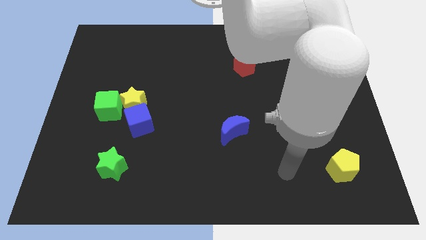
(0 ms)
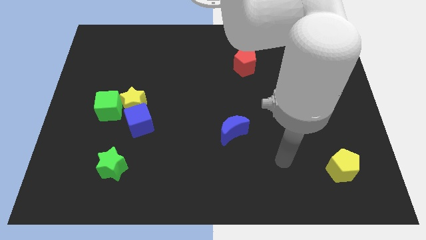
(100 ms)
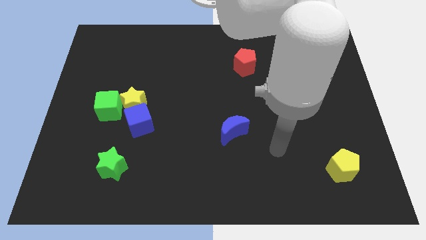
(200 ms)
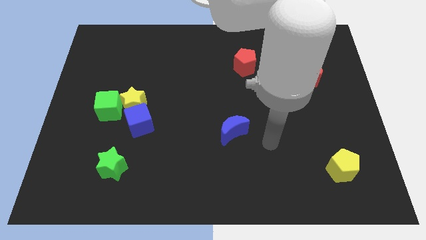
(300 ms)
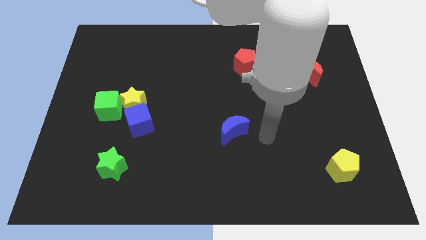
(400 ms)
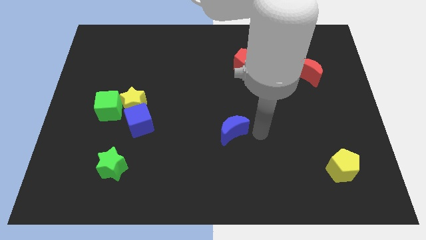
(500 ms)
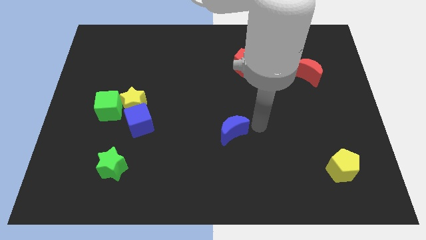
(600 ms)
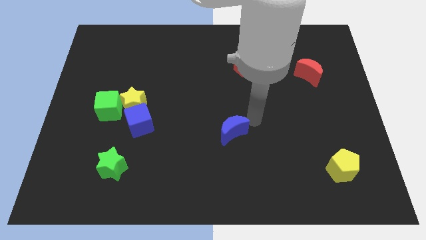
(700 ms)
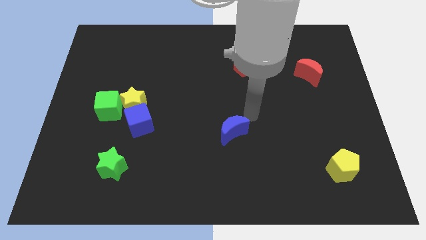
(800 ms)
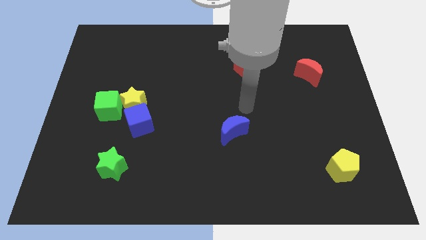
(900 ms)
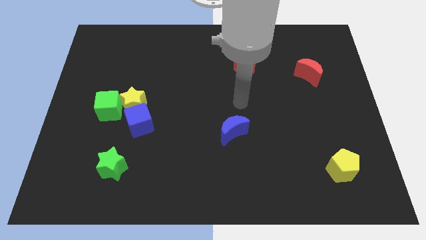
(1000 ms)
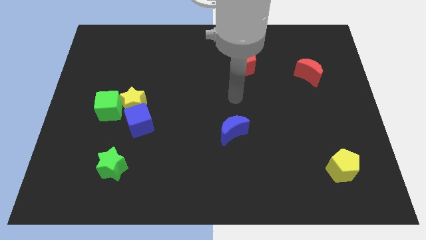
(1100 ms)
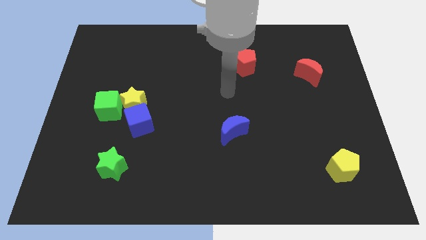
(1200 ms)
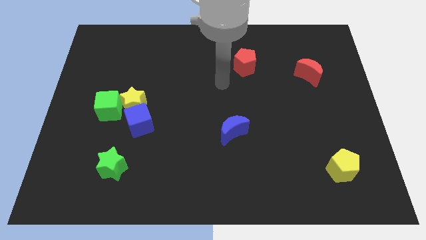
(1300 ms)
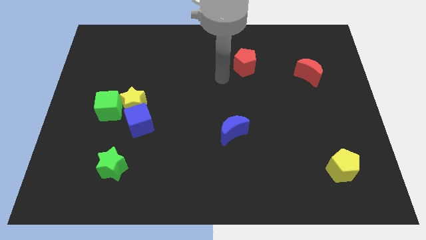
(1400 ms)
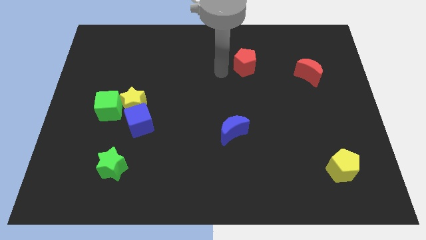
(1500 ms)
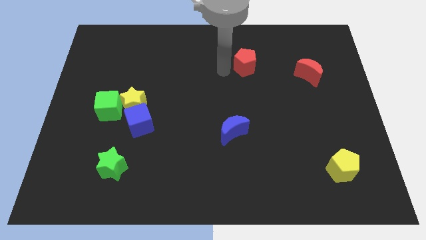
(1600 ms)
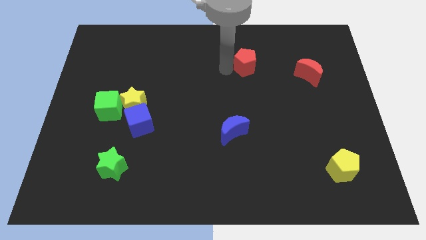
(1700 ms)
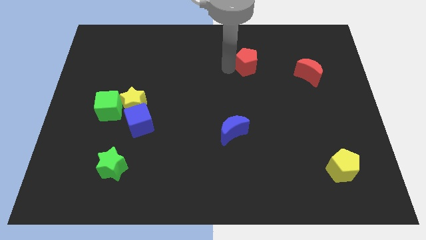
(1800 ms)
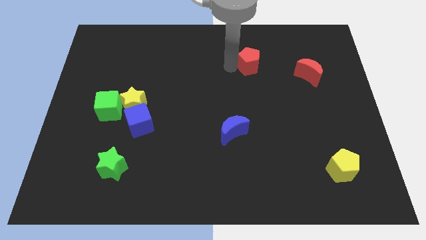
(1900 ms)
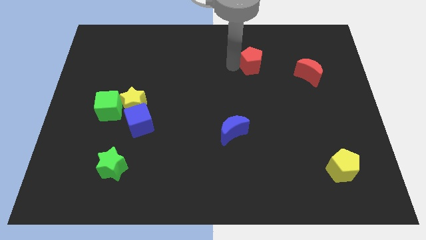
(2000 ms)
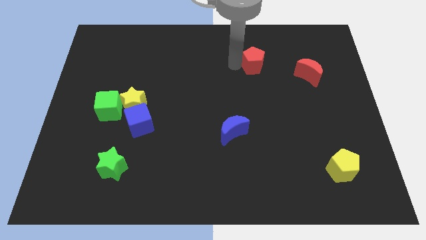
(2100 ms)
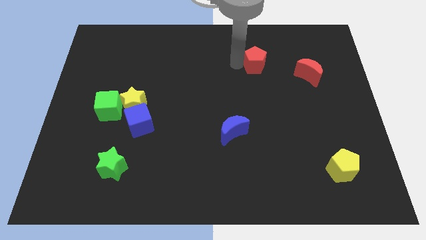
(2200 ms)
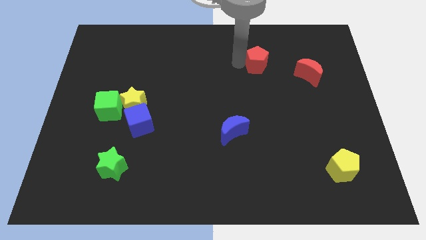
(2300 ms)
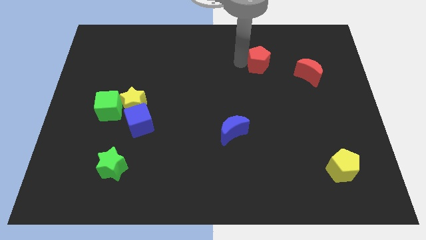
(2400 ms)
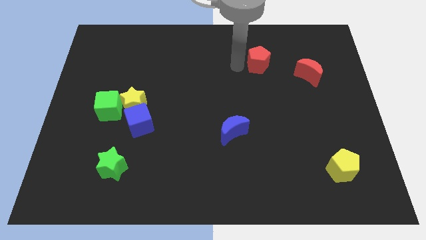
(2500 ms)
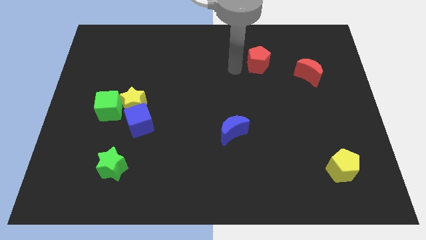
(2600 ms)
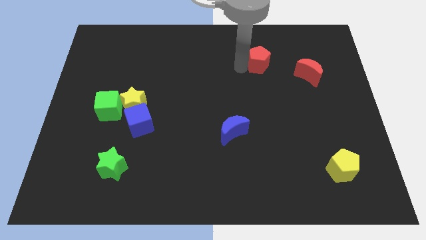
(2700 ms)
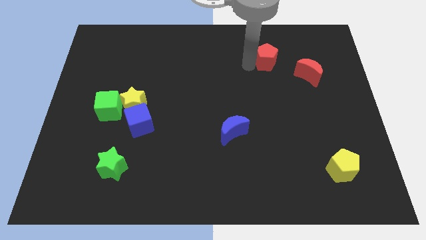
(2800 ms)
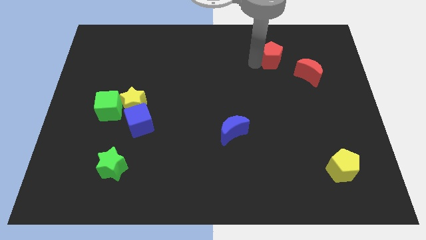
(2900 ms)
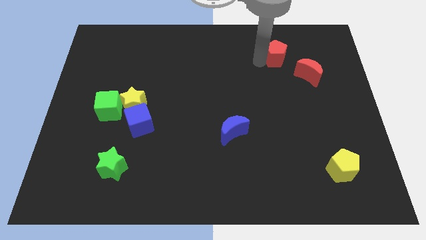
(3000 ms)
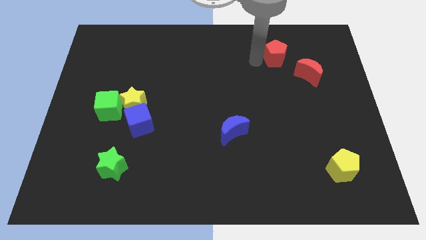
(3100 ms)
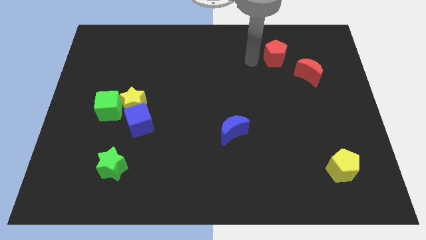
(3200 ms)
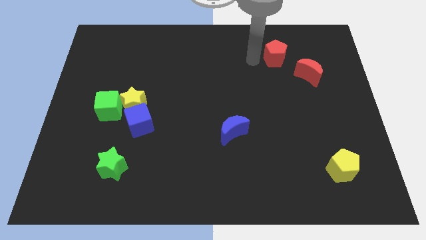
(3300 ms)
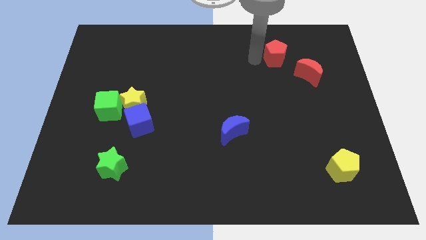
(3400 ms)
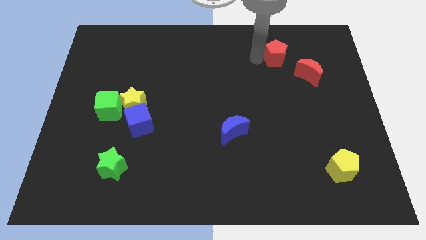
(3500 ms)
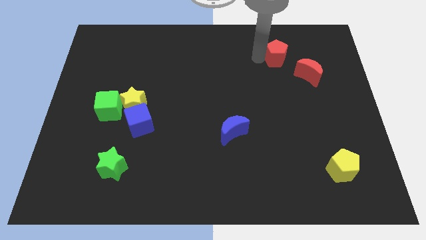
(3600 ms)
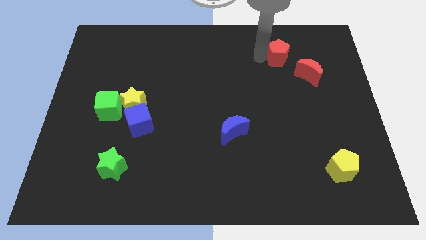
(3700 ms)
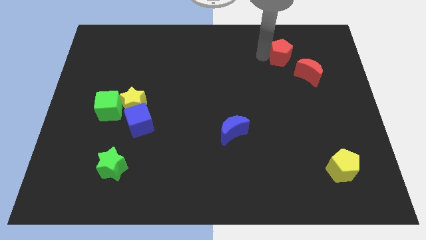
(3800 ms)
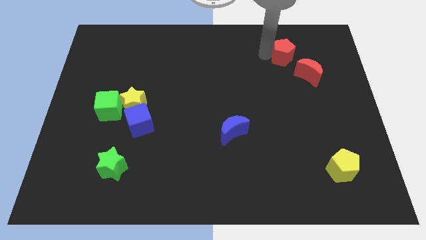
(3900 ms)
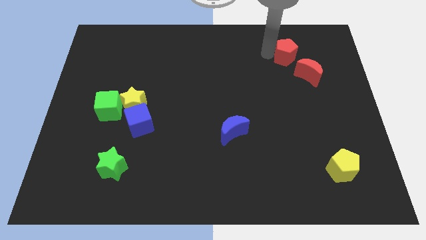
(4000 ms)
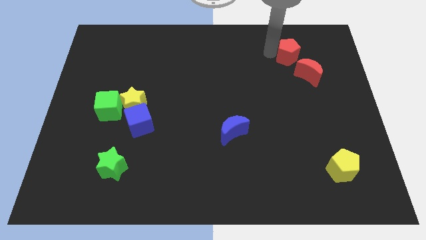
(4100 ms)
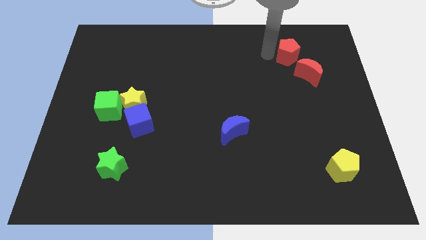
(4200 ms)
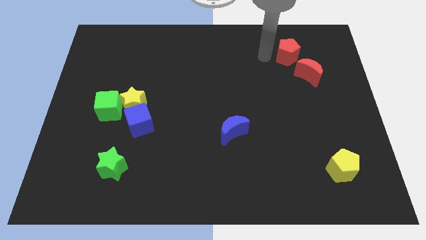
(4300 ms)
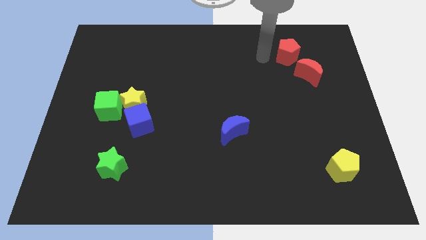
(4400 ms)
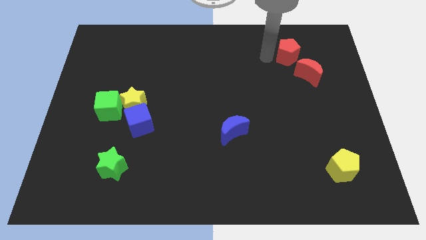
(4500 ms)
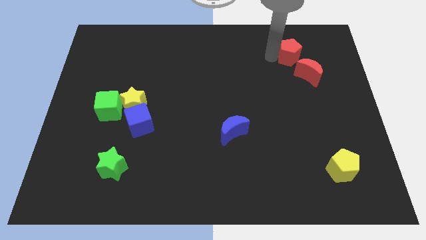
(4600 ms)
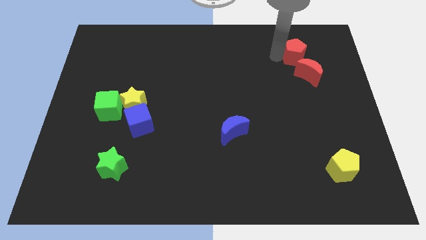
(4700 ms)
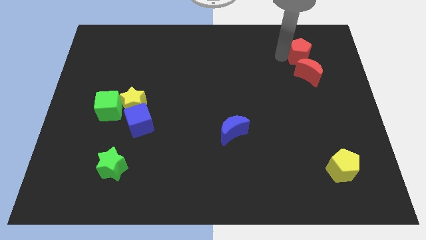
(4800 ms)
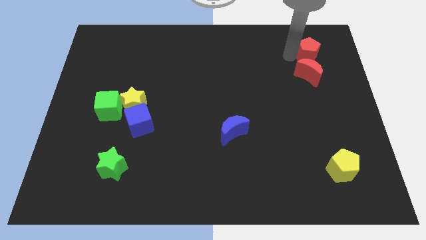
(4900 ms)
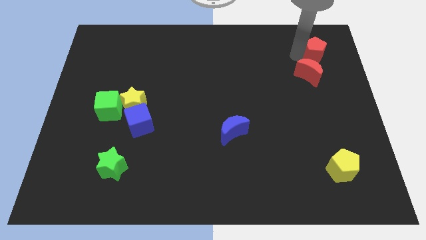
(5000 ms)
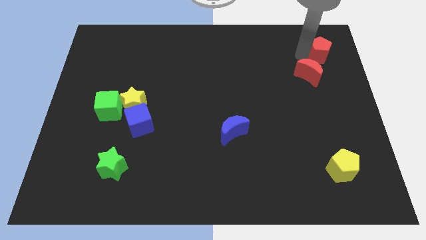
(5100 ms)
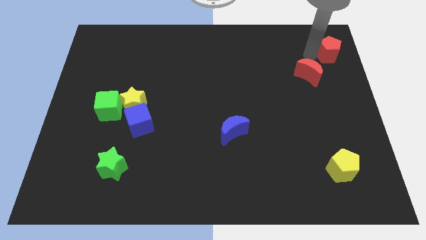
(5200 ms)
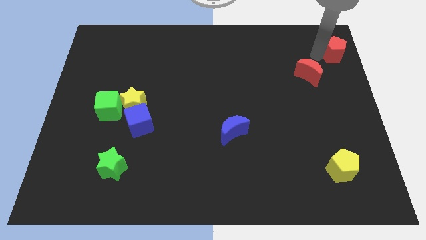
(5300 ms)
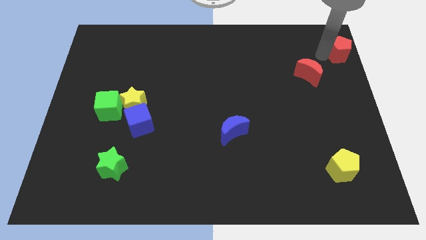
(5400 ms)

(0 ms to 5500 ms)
slide the red pentagon to the top right

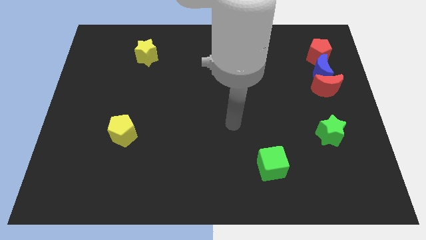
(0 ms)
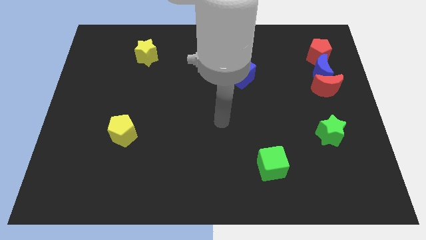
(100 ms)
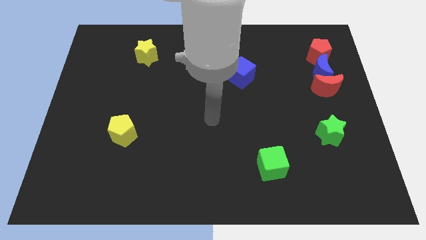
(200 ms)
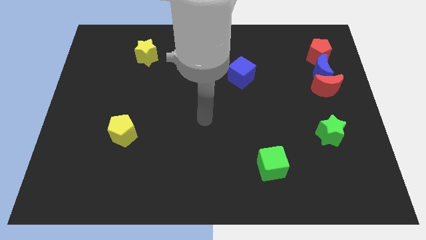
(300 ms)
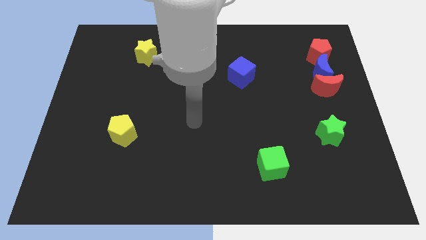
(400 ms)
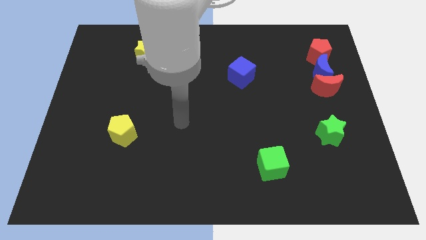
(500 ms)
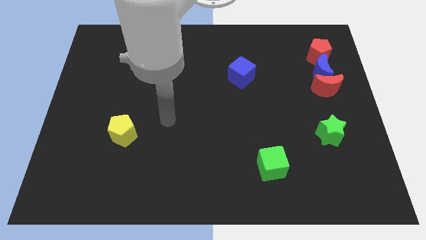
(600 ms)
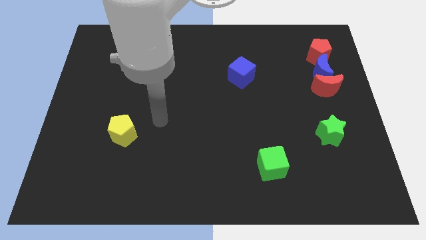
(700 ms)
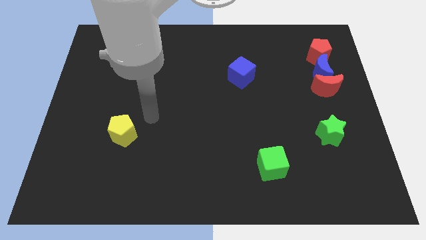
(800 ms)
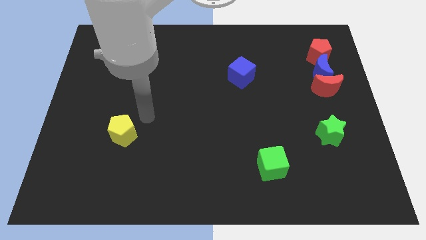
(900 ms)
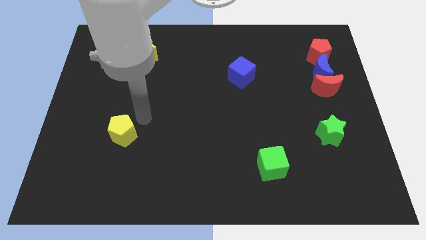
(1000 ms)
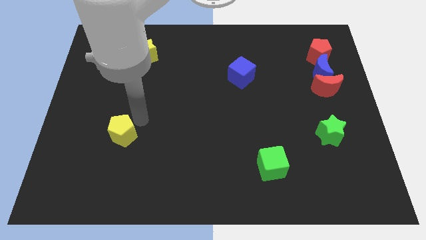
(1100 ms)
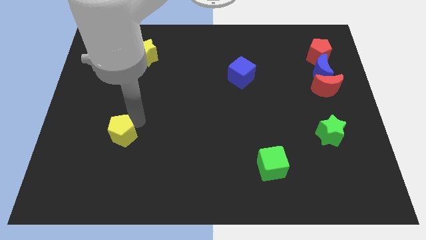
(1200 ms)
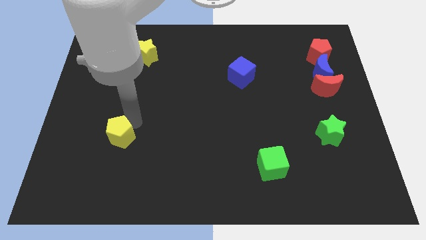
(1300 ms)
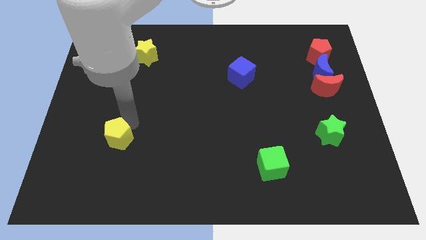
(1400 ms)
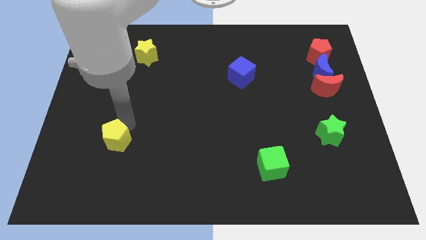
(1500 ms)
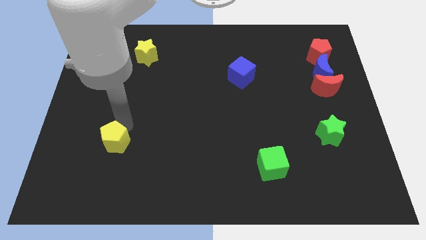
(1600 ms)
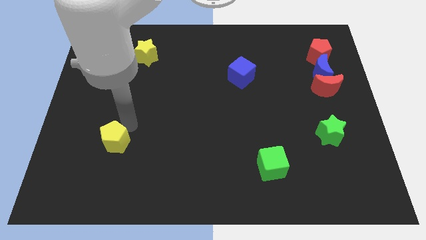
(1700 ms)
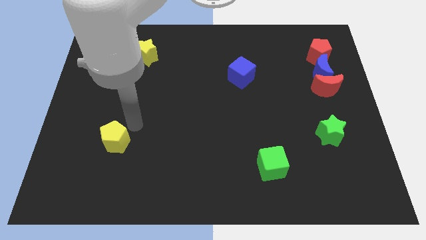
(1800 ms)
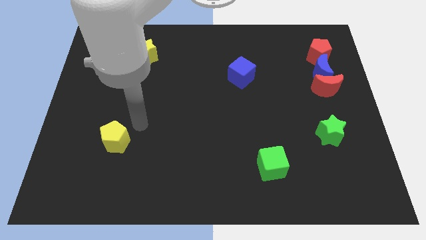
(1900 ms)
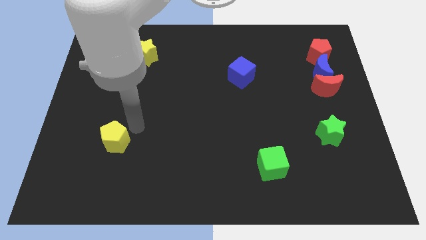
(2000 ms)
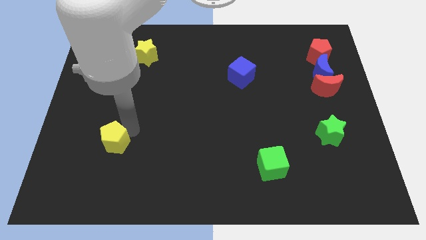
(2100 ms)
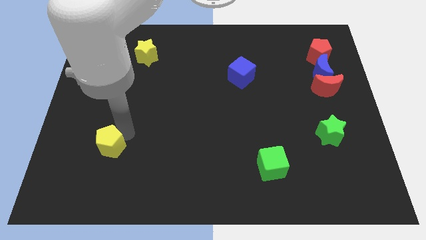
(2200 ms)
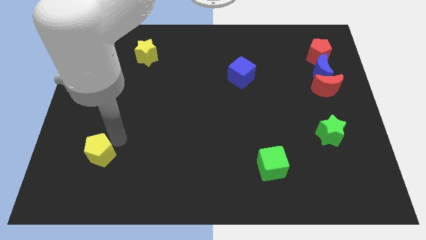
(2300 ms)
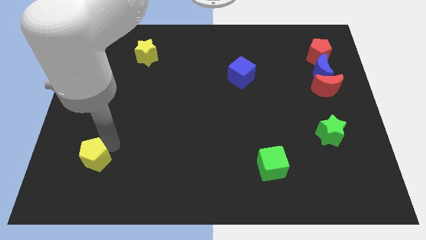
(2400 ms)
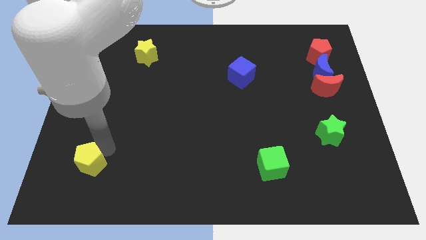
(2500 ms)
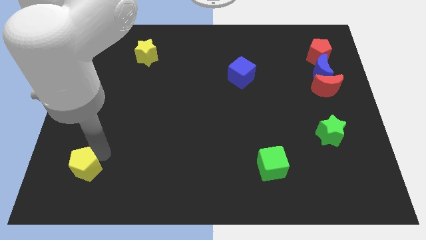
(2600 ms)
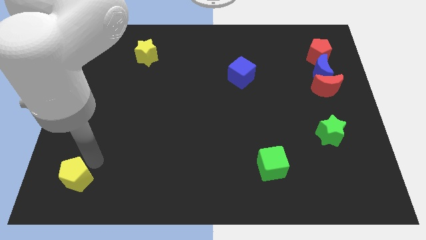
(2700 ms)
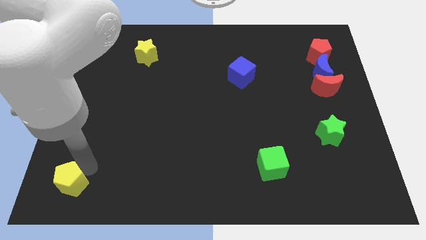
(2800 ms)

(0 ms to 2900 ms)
move the yellow pentagon to the bottom left corner
